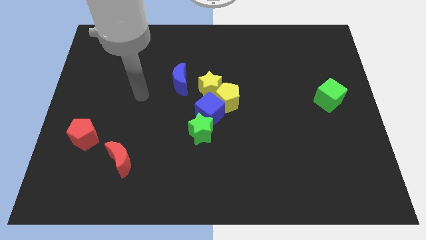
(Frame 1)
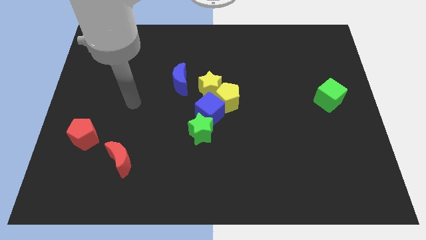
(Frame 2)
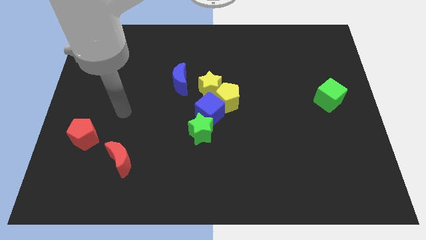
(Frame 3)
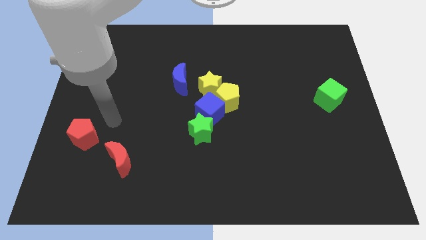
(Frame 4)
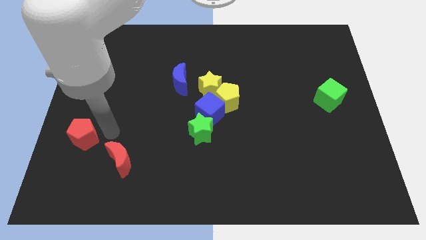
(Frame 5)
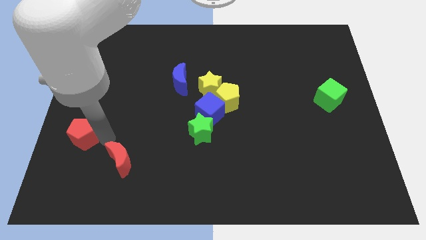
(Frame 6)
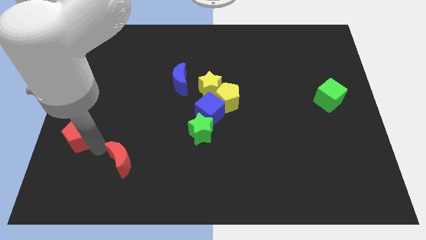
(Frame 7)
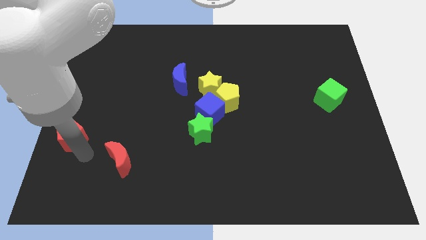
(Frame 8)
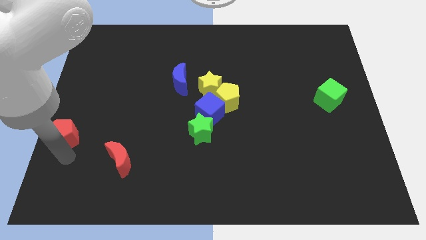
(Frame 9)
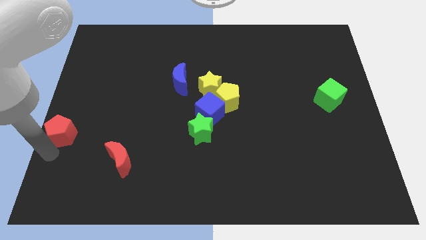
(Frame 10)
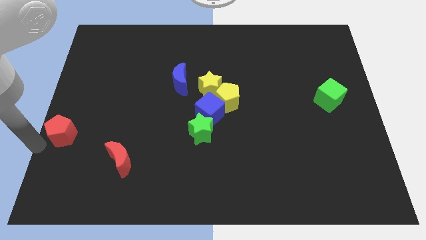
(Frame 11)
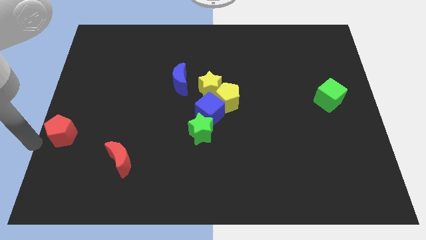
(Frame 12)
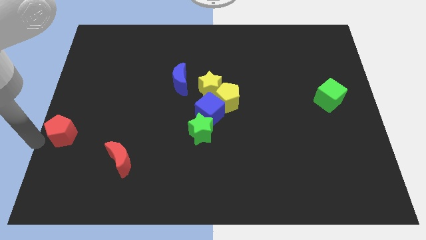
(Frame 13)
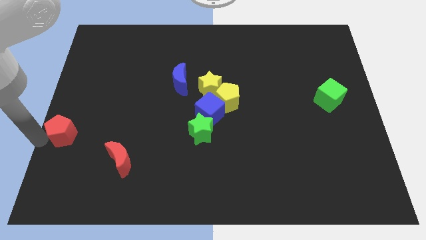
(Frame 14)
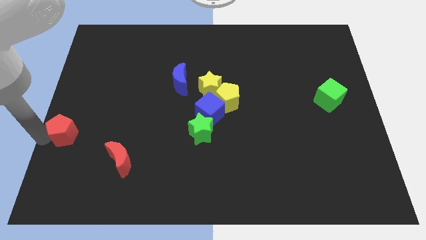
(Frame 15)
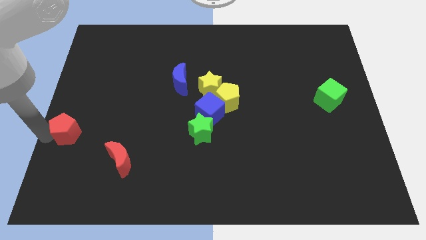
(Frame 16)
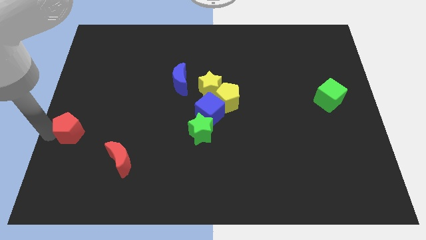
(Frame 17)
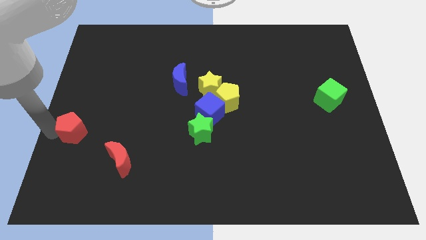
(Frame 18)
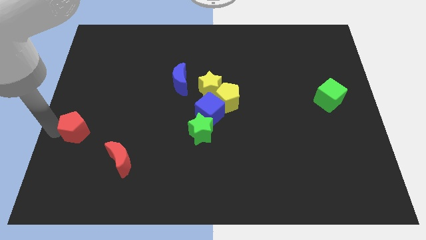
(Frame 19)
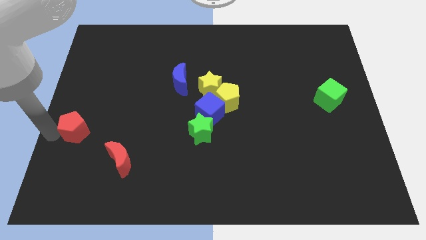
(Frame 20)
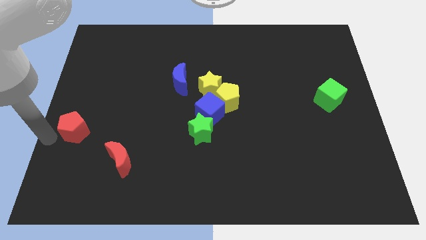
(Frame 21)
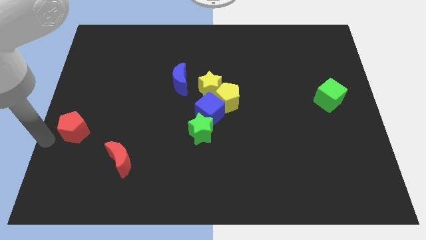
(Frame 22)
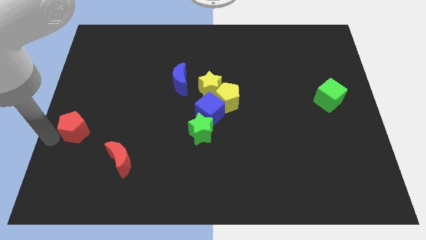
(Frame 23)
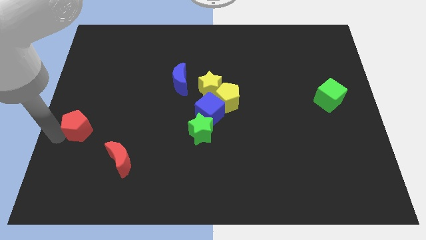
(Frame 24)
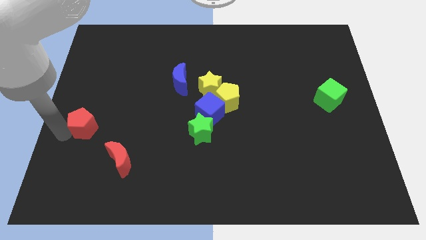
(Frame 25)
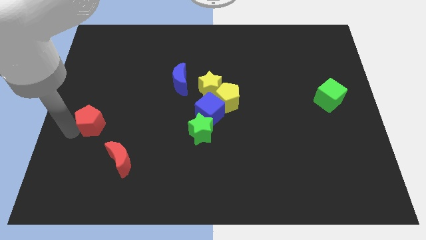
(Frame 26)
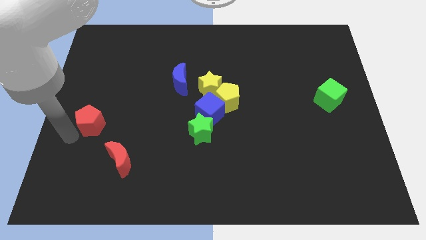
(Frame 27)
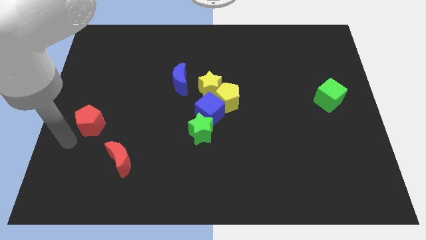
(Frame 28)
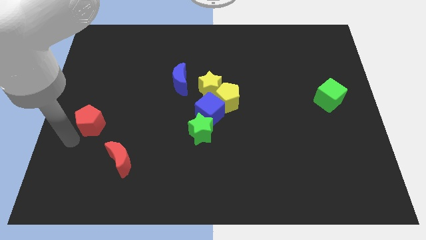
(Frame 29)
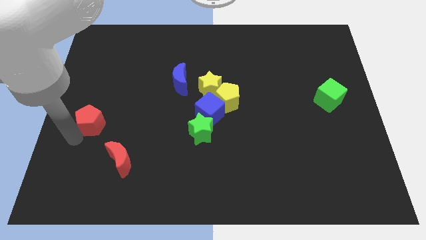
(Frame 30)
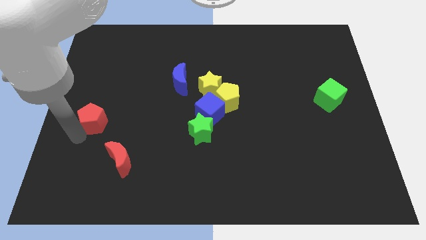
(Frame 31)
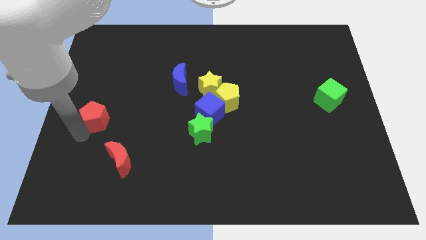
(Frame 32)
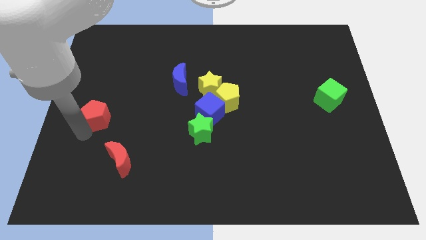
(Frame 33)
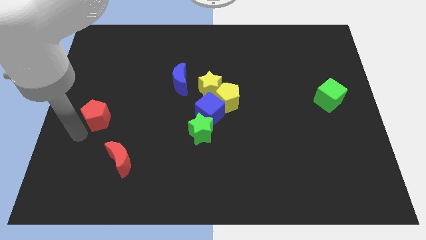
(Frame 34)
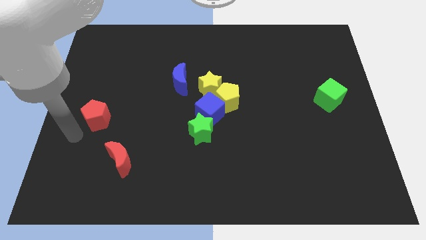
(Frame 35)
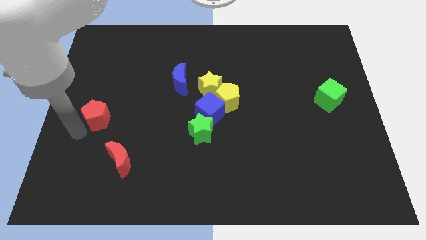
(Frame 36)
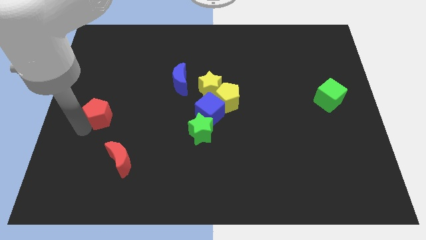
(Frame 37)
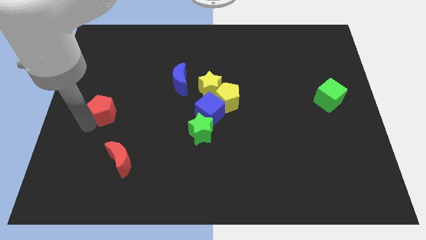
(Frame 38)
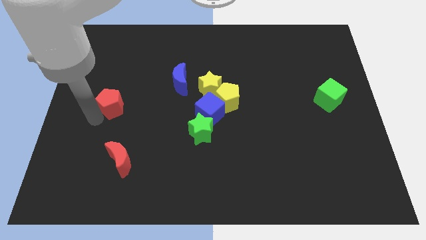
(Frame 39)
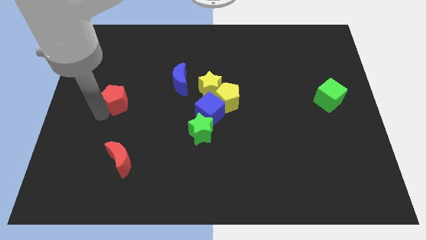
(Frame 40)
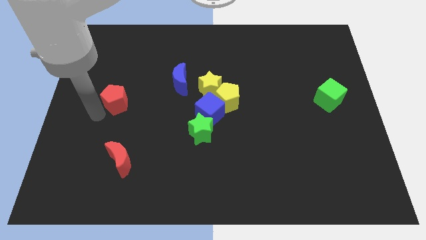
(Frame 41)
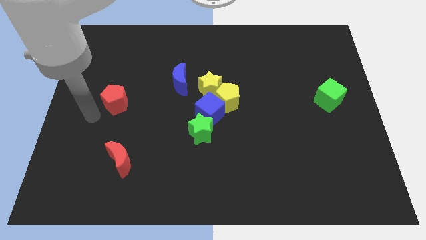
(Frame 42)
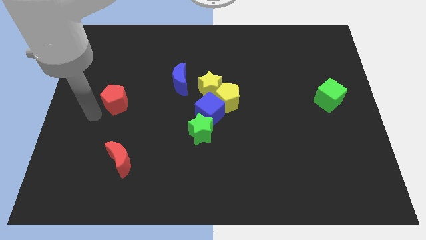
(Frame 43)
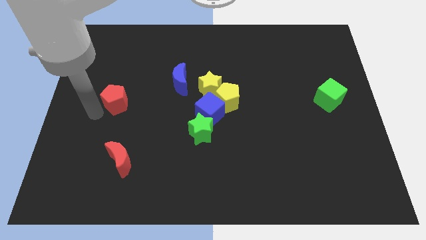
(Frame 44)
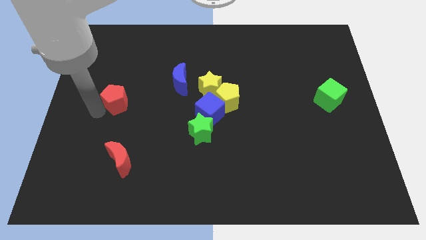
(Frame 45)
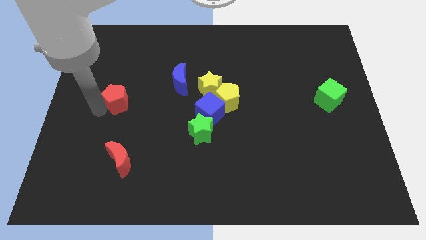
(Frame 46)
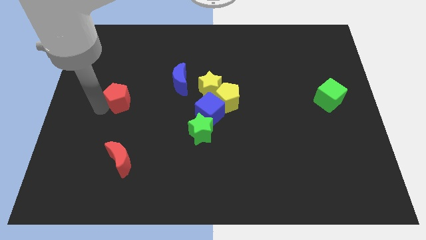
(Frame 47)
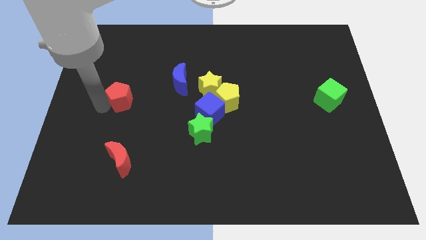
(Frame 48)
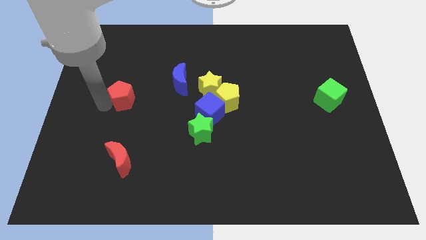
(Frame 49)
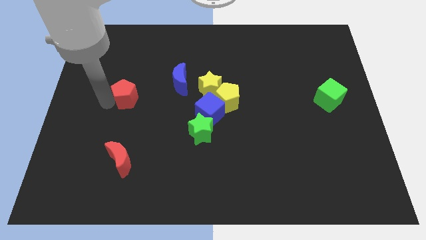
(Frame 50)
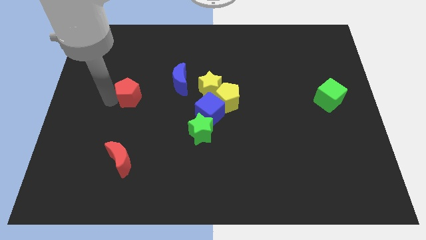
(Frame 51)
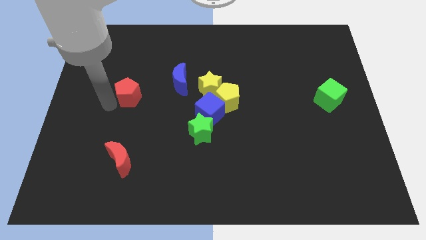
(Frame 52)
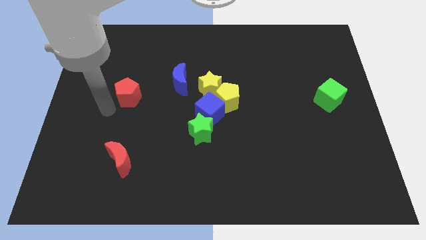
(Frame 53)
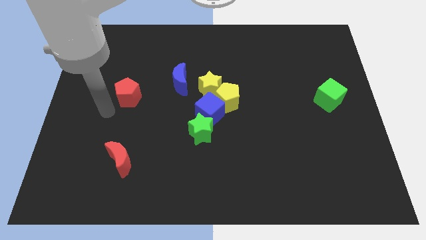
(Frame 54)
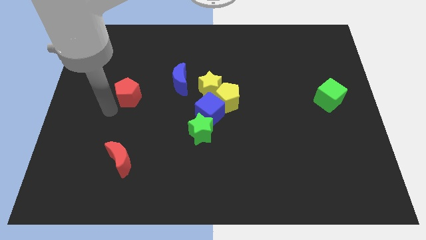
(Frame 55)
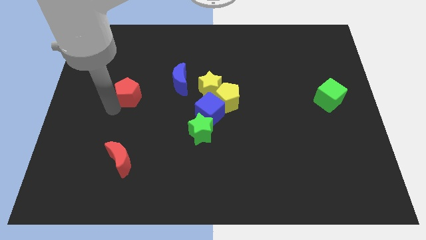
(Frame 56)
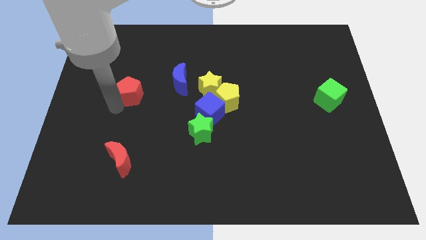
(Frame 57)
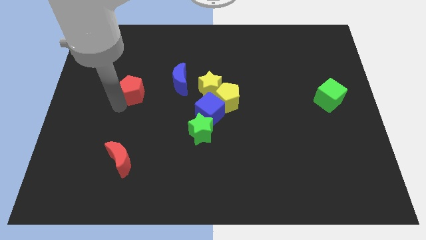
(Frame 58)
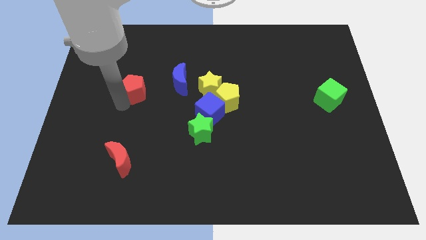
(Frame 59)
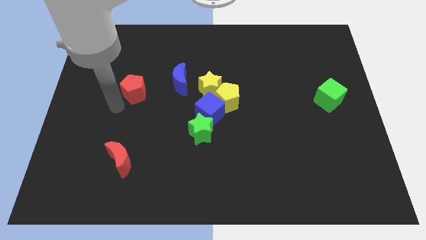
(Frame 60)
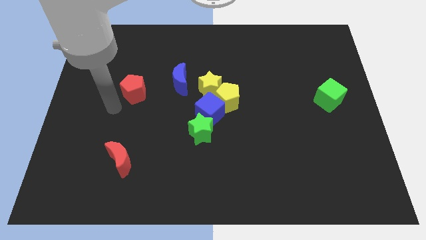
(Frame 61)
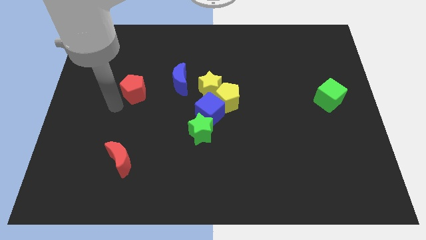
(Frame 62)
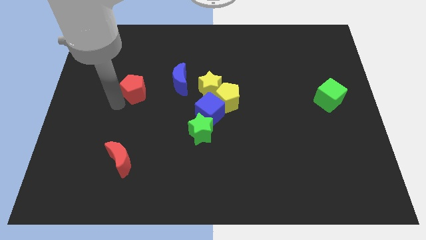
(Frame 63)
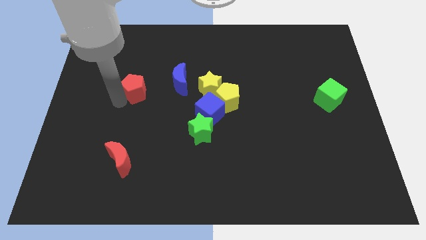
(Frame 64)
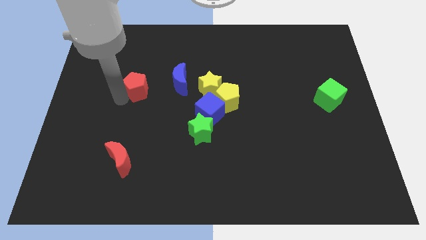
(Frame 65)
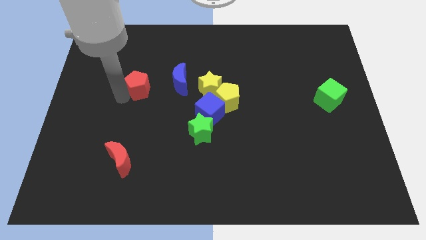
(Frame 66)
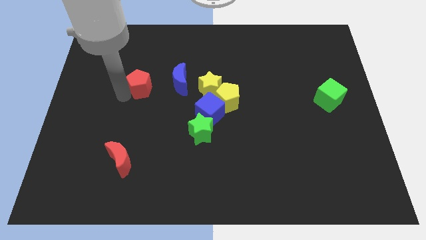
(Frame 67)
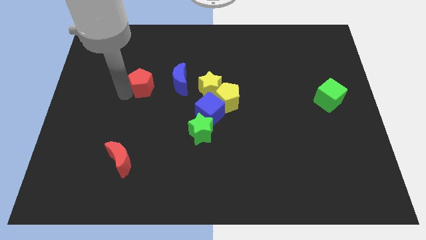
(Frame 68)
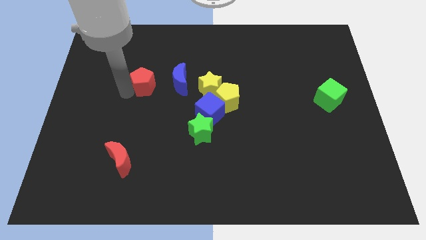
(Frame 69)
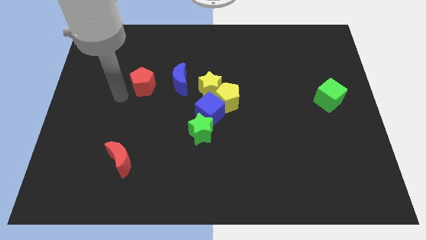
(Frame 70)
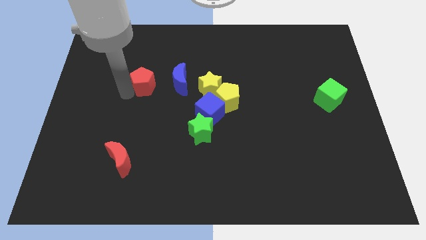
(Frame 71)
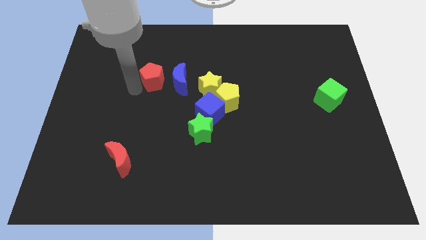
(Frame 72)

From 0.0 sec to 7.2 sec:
move the red pentagon diagonally up and right

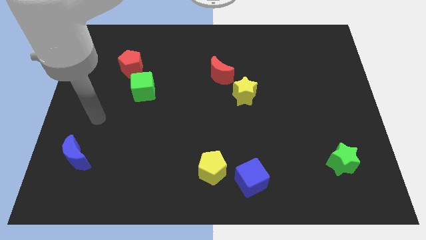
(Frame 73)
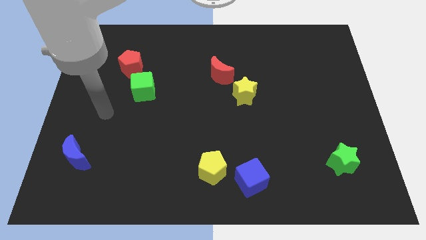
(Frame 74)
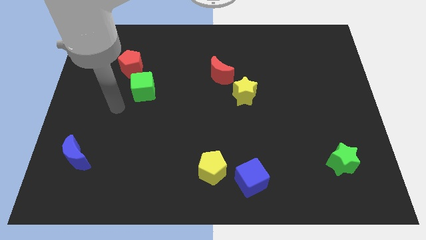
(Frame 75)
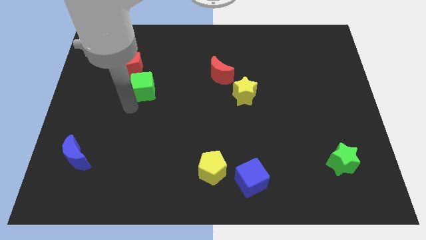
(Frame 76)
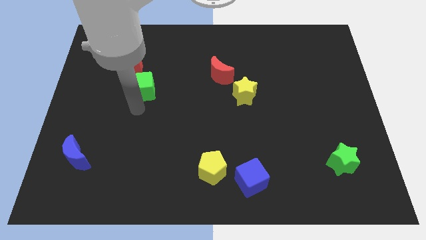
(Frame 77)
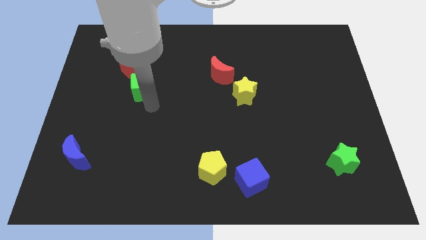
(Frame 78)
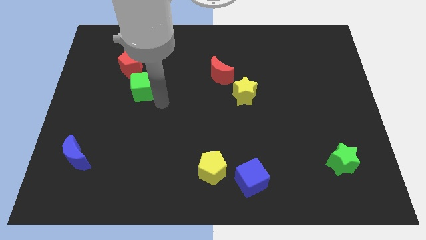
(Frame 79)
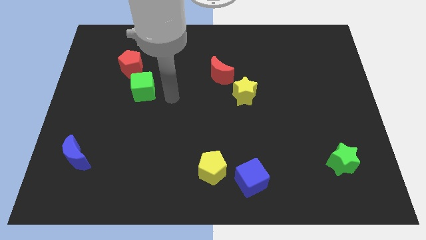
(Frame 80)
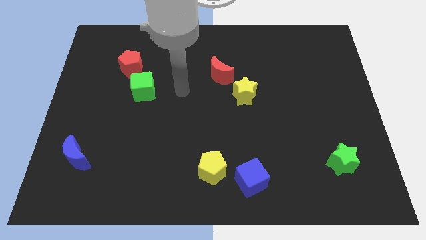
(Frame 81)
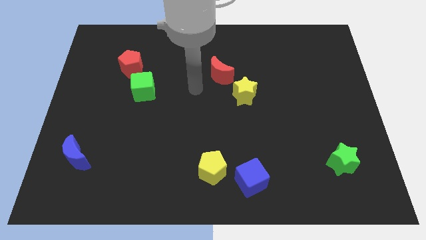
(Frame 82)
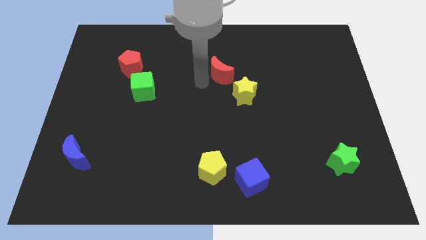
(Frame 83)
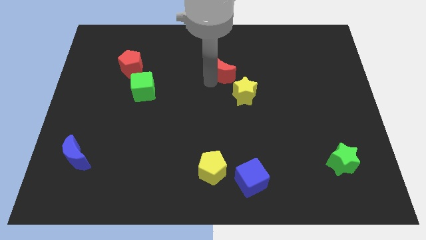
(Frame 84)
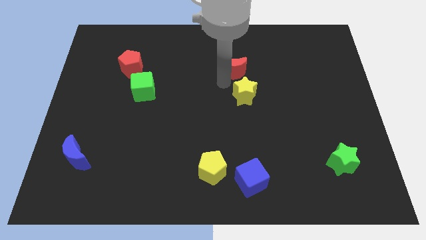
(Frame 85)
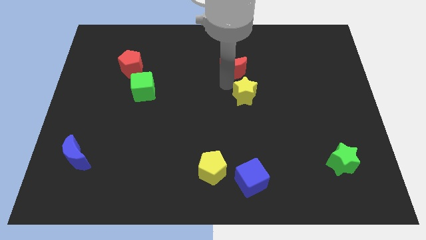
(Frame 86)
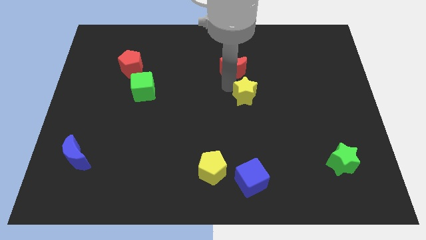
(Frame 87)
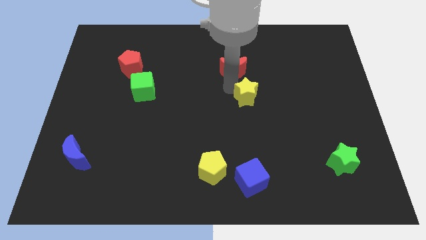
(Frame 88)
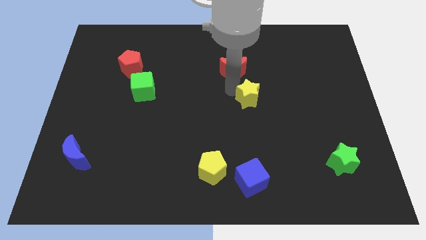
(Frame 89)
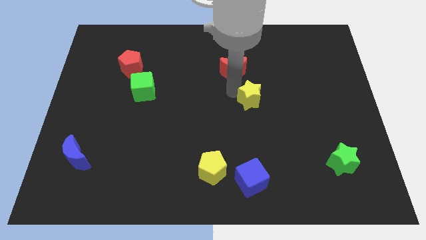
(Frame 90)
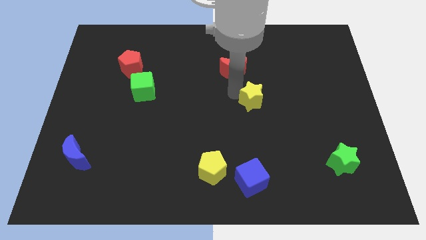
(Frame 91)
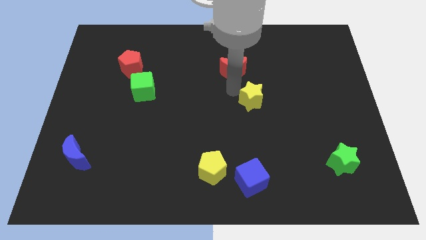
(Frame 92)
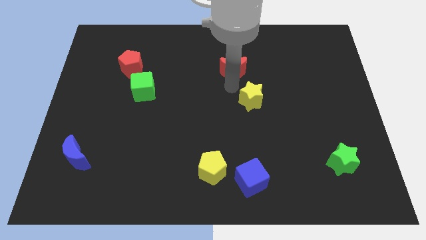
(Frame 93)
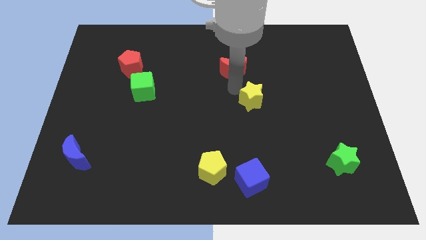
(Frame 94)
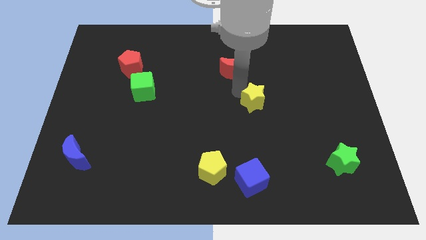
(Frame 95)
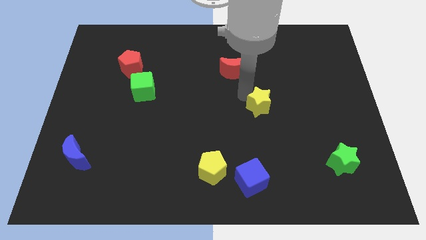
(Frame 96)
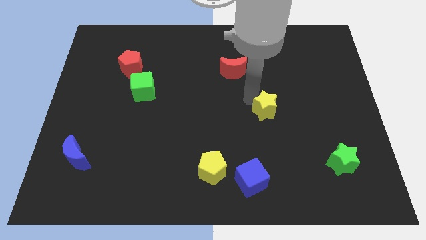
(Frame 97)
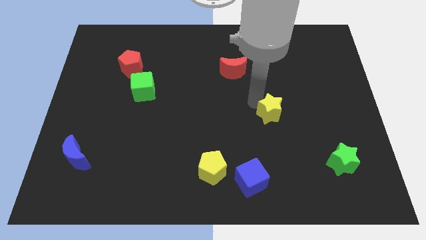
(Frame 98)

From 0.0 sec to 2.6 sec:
slide the yellow star slightly down and then right
